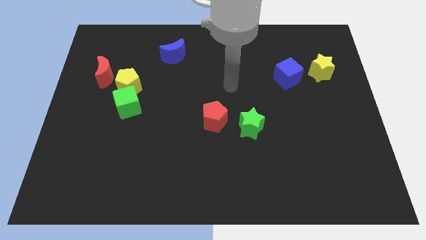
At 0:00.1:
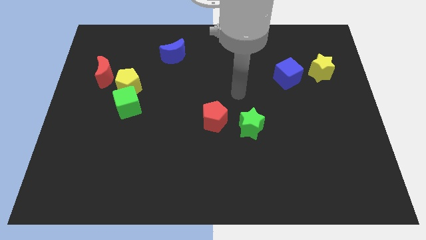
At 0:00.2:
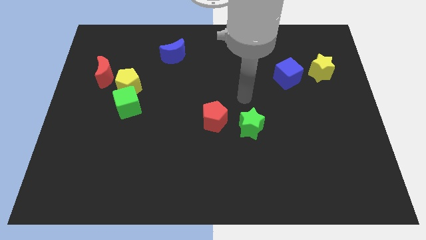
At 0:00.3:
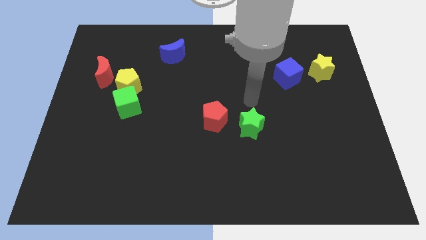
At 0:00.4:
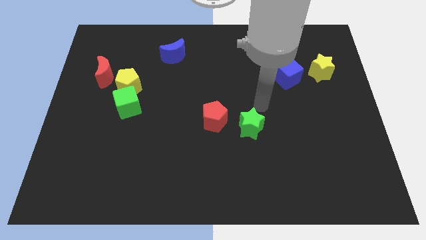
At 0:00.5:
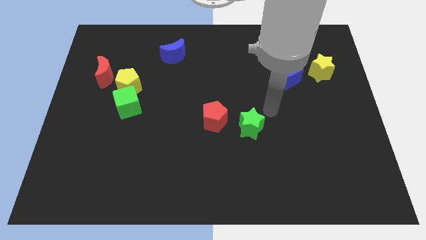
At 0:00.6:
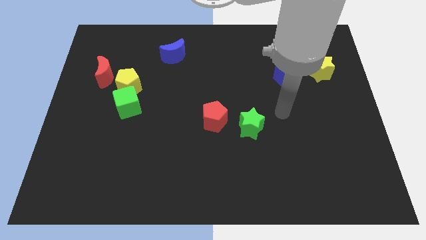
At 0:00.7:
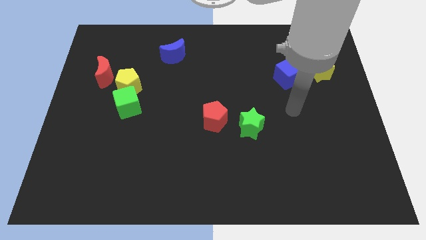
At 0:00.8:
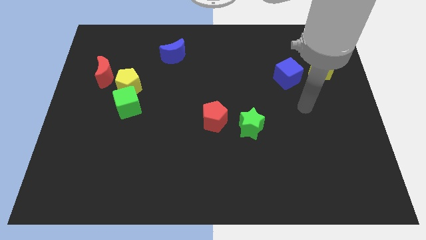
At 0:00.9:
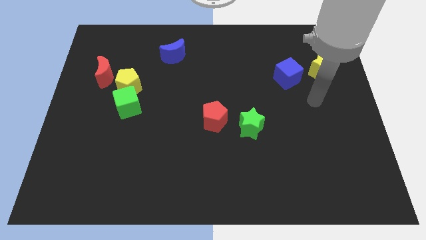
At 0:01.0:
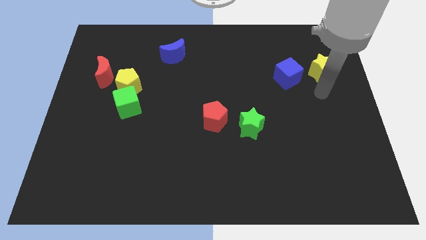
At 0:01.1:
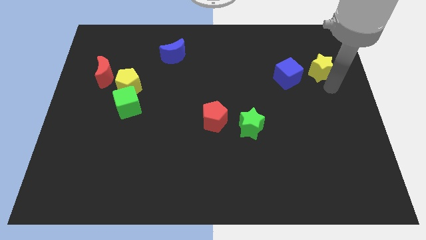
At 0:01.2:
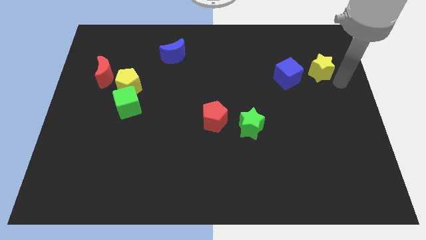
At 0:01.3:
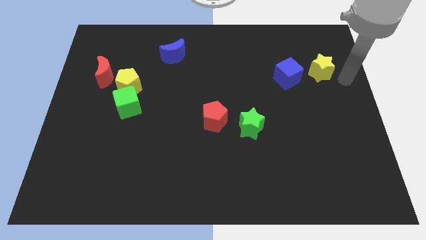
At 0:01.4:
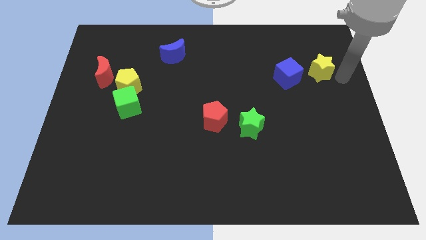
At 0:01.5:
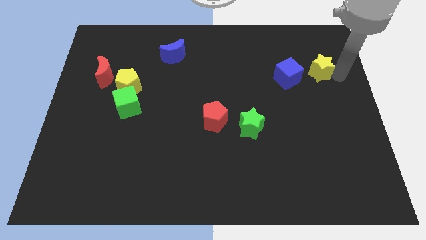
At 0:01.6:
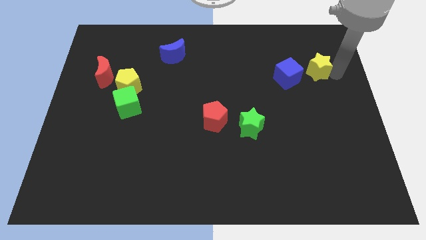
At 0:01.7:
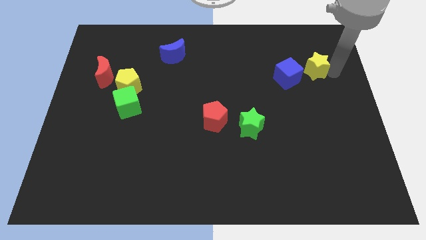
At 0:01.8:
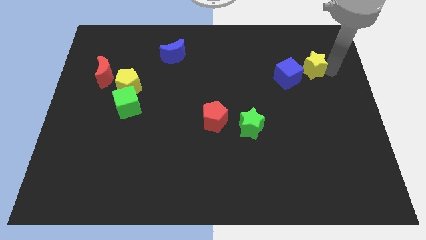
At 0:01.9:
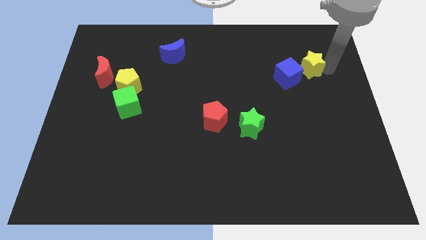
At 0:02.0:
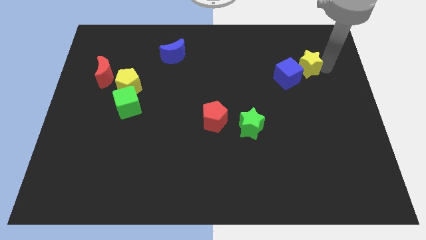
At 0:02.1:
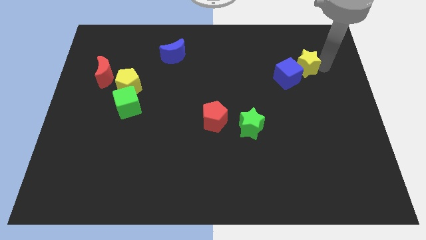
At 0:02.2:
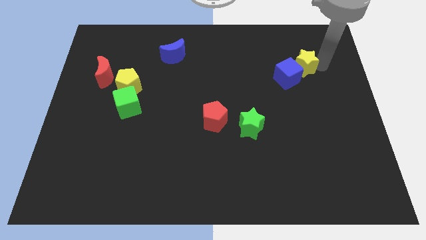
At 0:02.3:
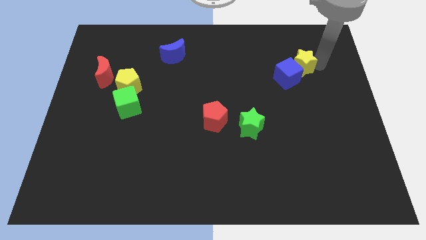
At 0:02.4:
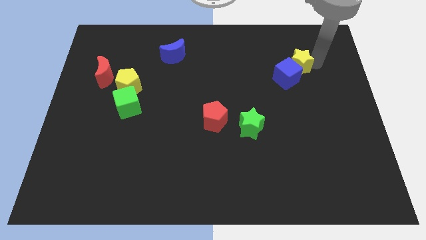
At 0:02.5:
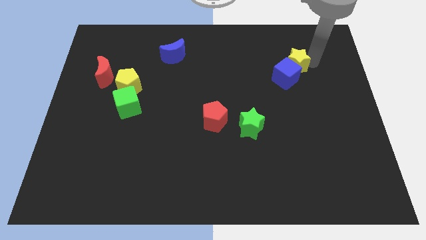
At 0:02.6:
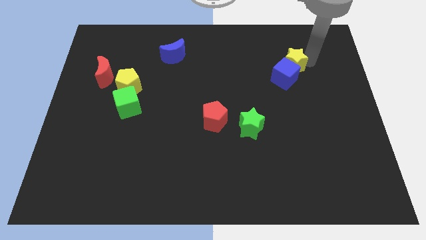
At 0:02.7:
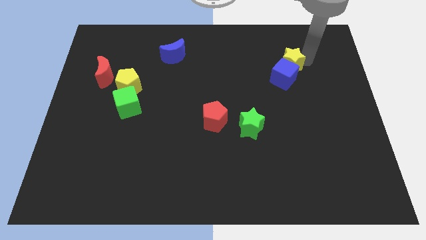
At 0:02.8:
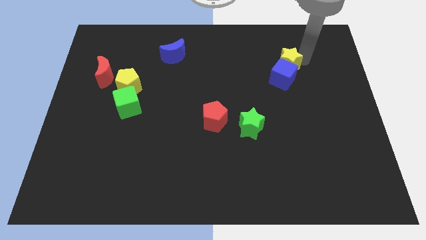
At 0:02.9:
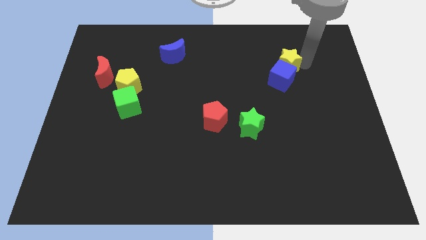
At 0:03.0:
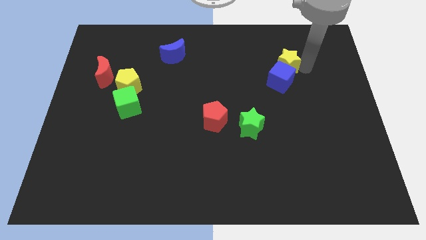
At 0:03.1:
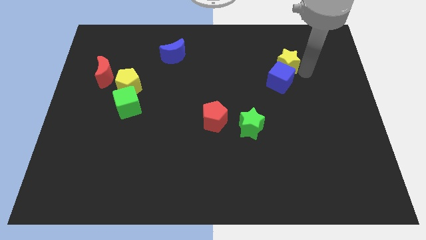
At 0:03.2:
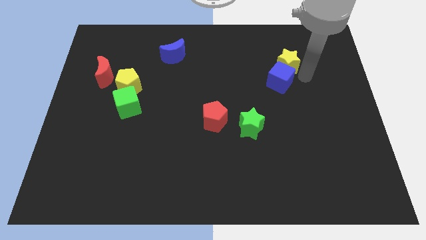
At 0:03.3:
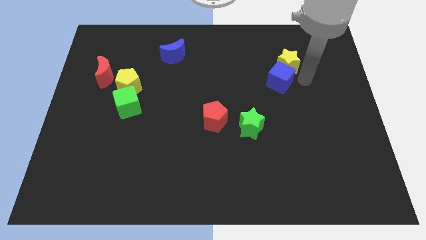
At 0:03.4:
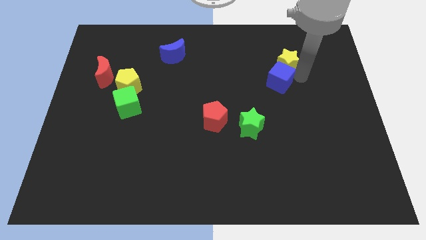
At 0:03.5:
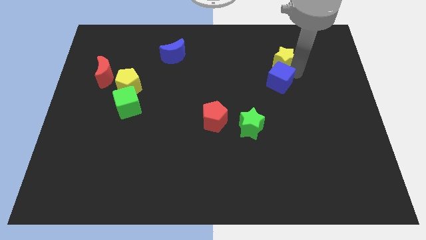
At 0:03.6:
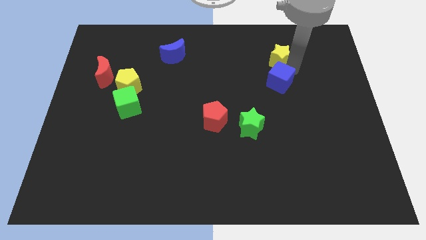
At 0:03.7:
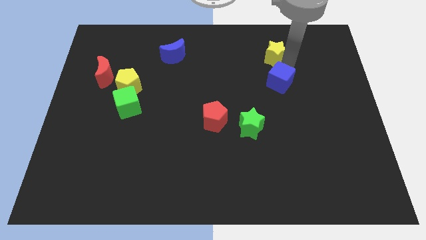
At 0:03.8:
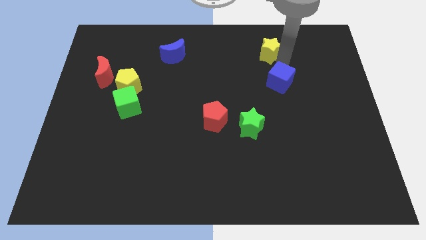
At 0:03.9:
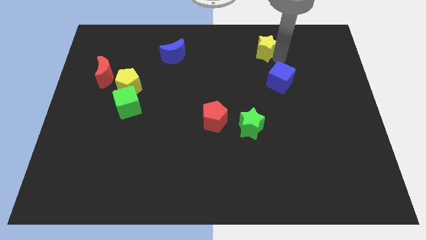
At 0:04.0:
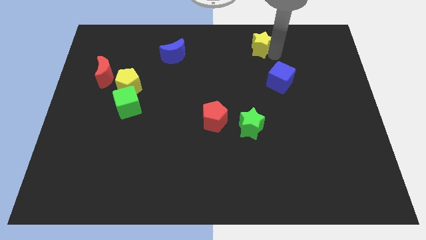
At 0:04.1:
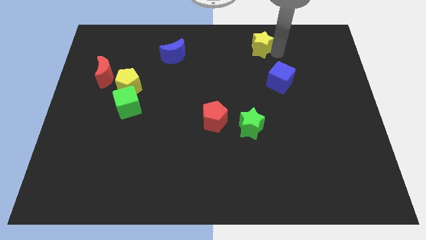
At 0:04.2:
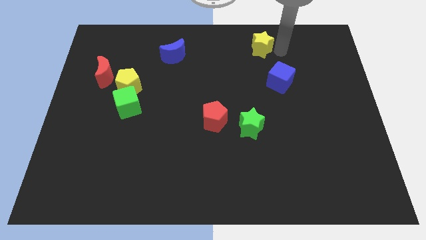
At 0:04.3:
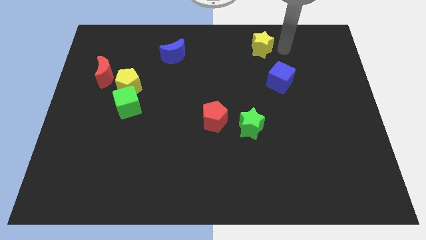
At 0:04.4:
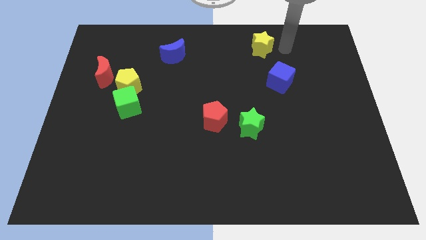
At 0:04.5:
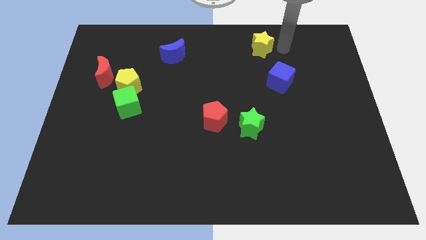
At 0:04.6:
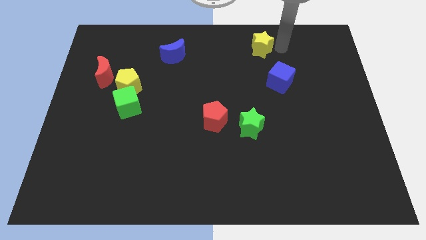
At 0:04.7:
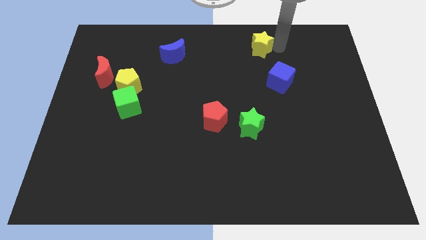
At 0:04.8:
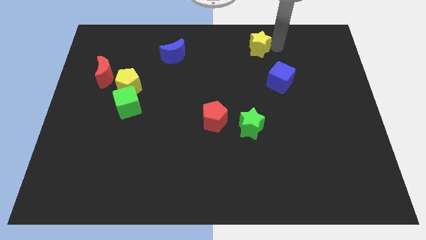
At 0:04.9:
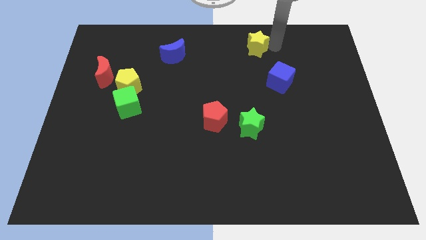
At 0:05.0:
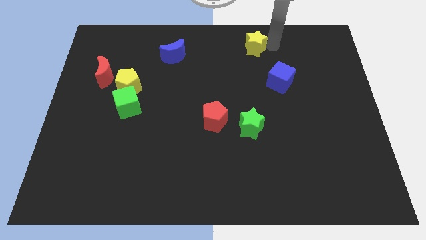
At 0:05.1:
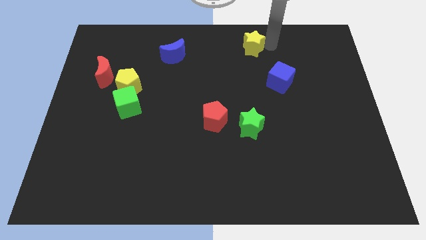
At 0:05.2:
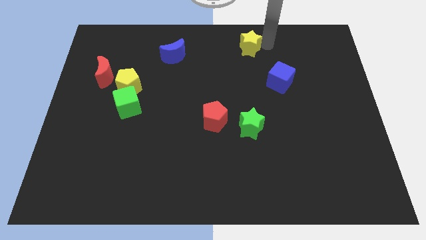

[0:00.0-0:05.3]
move the yellow star to the towards your base

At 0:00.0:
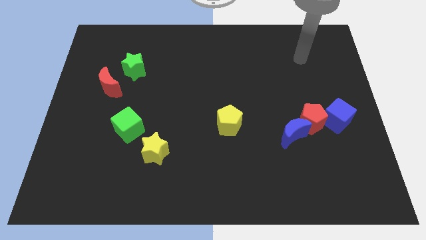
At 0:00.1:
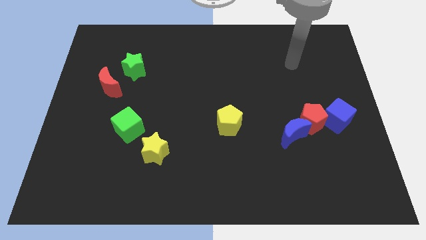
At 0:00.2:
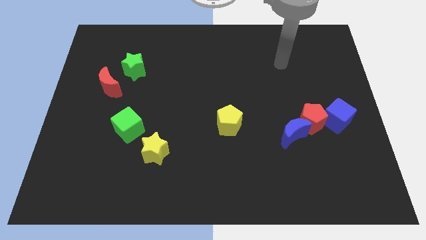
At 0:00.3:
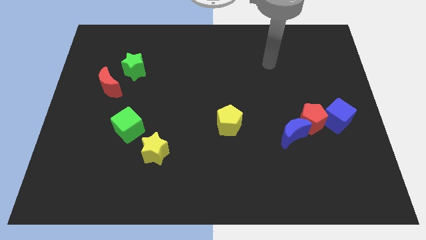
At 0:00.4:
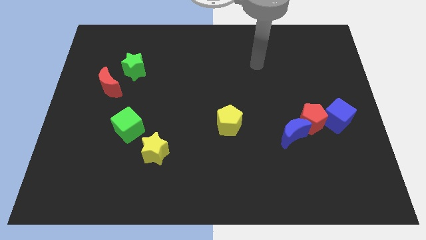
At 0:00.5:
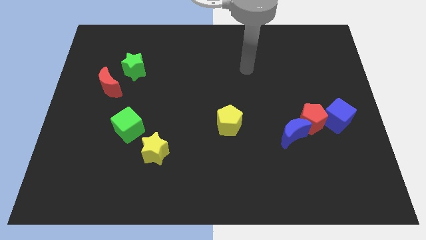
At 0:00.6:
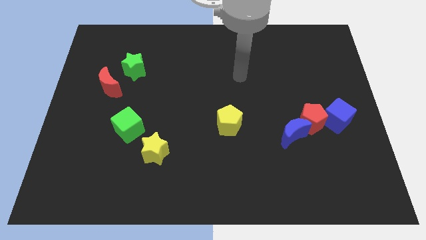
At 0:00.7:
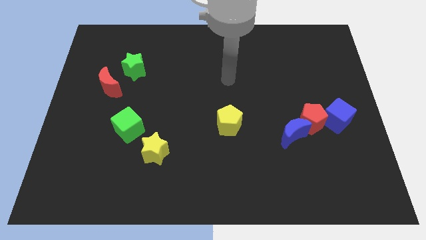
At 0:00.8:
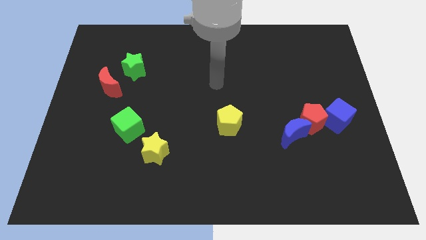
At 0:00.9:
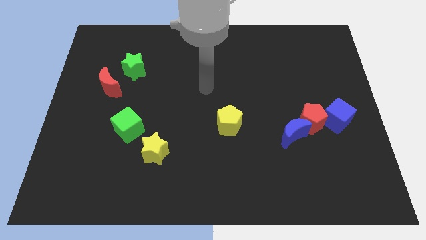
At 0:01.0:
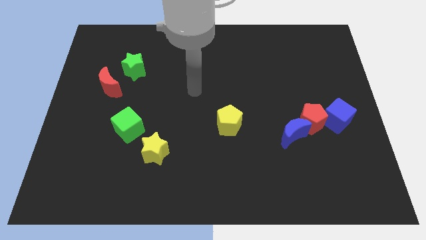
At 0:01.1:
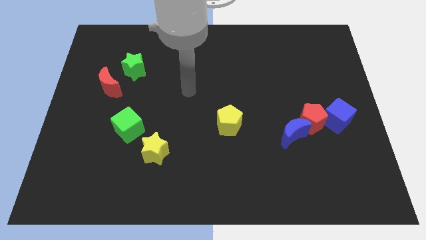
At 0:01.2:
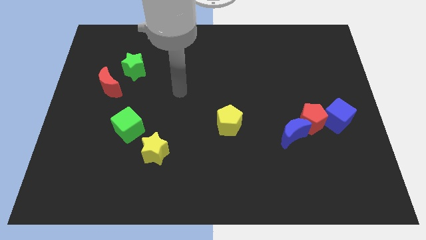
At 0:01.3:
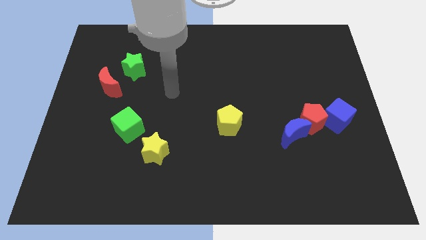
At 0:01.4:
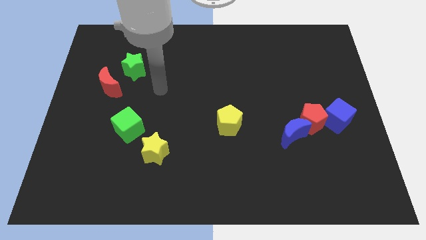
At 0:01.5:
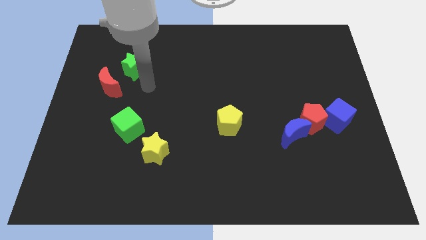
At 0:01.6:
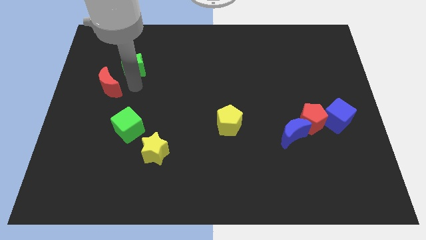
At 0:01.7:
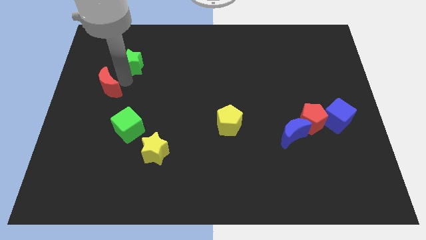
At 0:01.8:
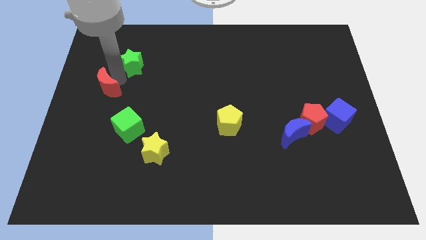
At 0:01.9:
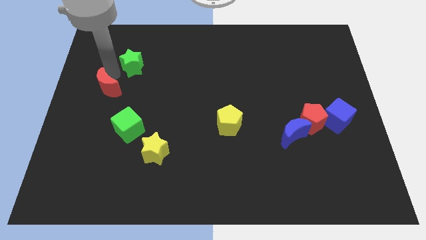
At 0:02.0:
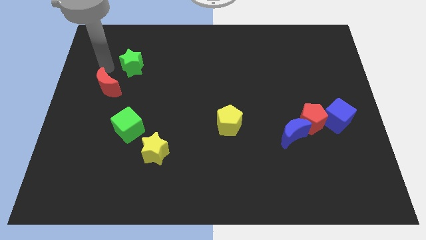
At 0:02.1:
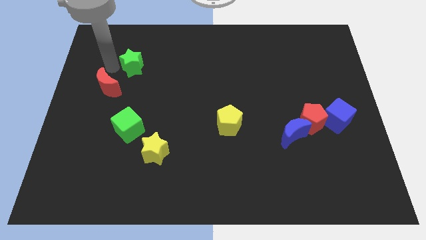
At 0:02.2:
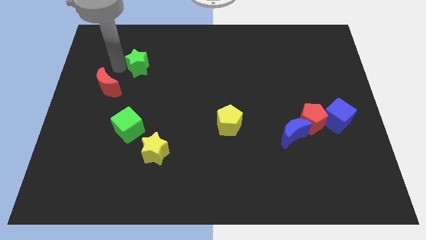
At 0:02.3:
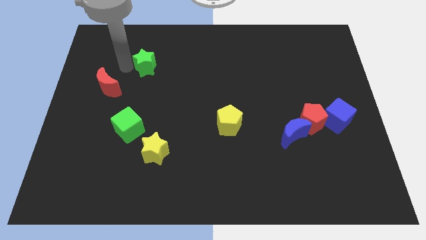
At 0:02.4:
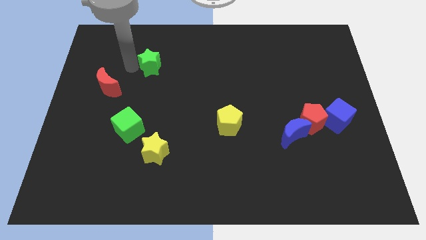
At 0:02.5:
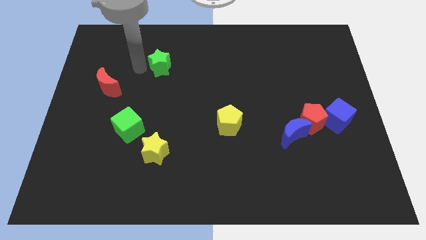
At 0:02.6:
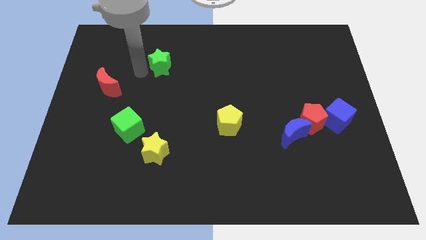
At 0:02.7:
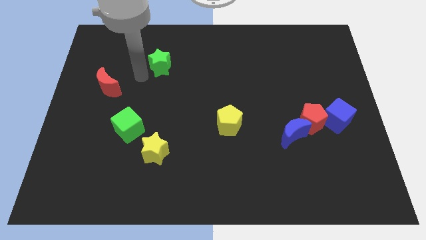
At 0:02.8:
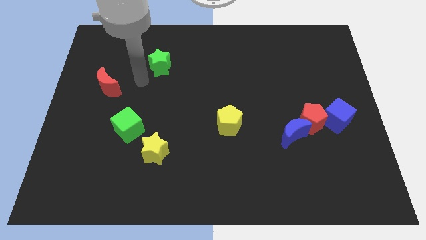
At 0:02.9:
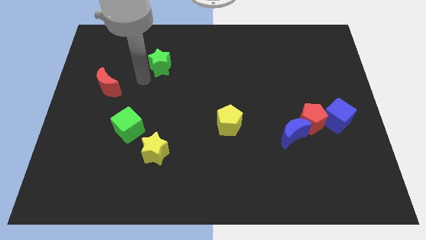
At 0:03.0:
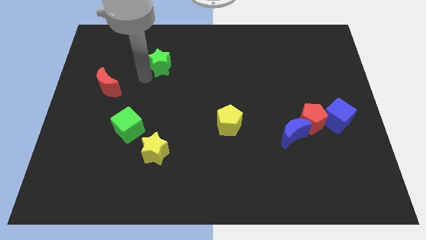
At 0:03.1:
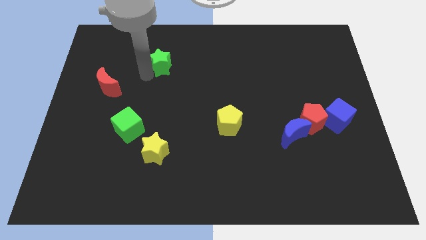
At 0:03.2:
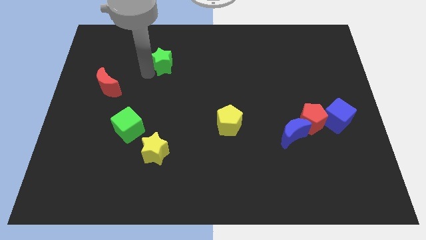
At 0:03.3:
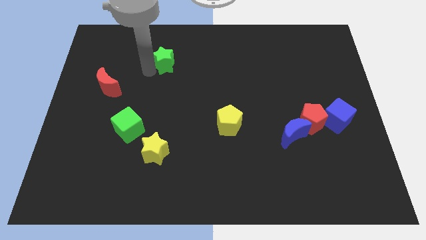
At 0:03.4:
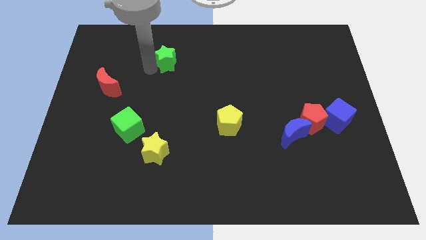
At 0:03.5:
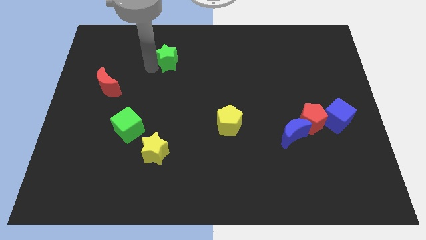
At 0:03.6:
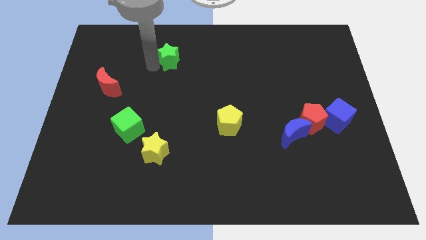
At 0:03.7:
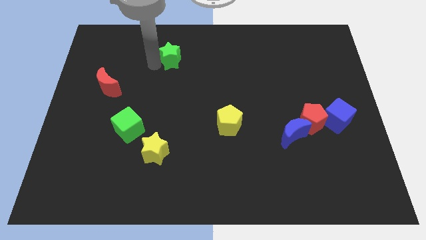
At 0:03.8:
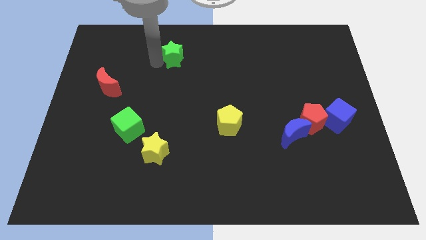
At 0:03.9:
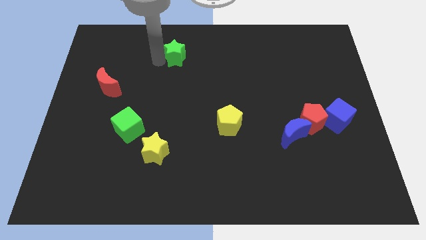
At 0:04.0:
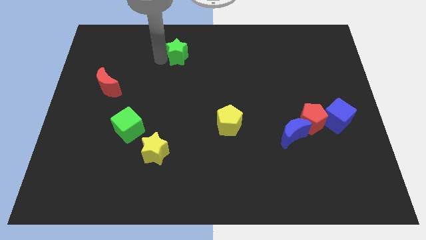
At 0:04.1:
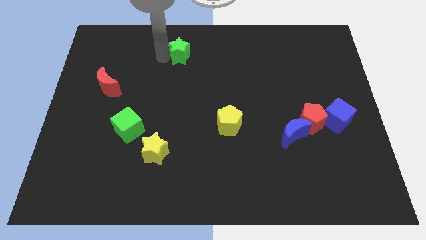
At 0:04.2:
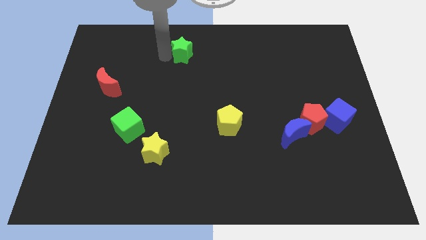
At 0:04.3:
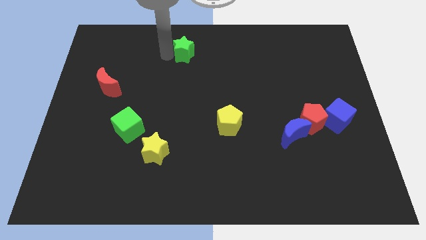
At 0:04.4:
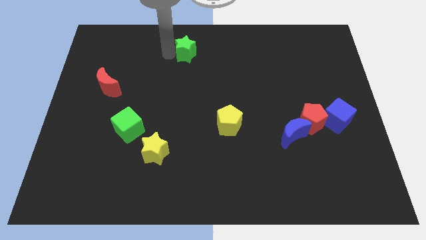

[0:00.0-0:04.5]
move the green star to the top
